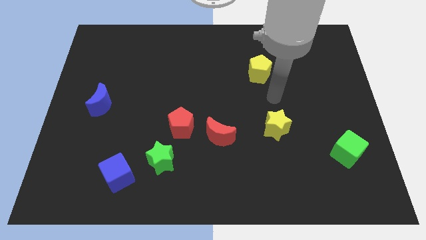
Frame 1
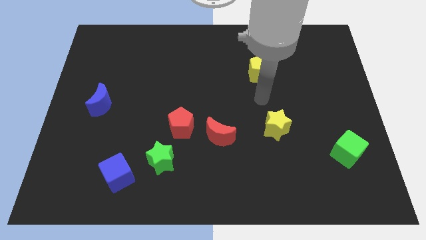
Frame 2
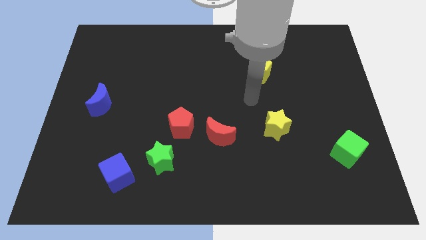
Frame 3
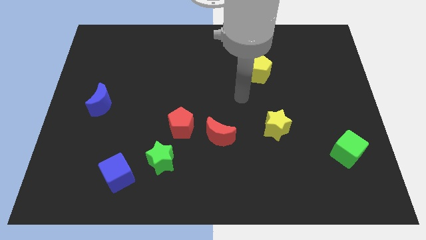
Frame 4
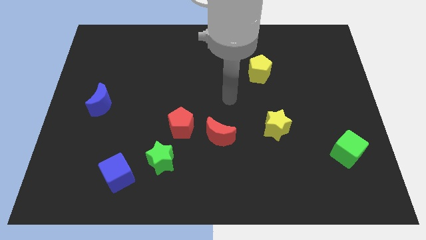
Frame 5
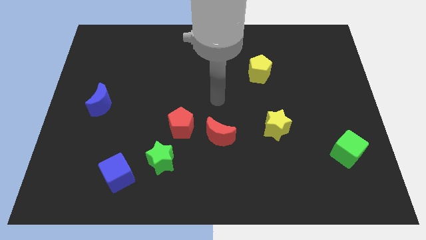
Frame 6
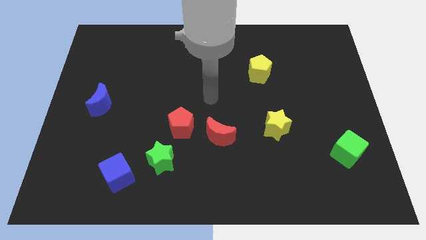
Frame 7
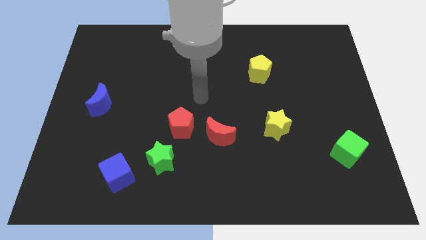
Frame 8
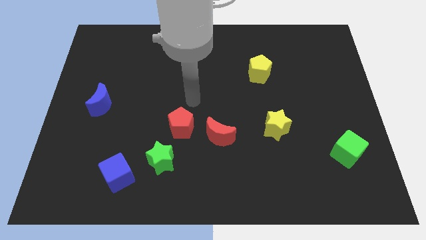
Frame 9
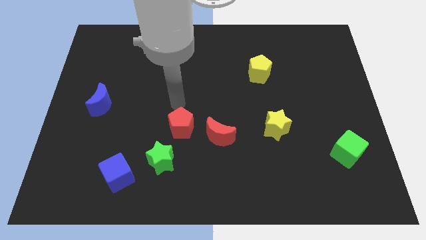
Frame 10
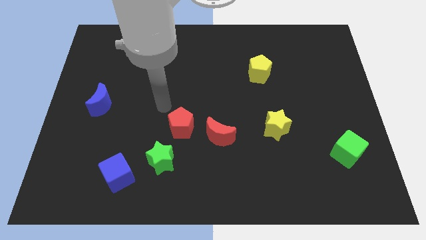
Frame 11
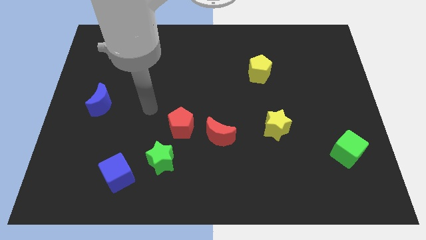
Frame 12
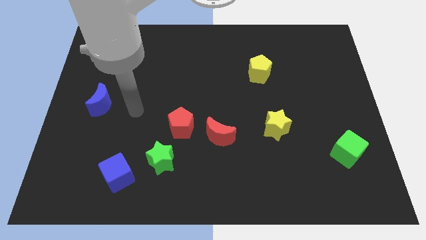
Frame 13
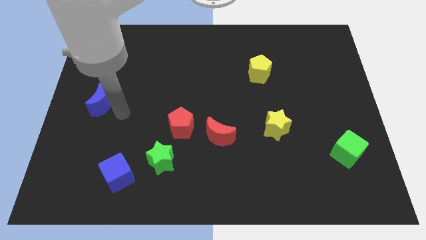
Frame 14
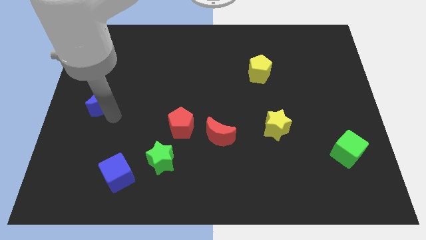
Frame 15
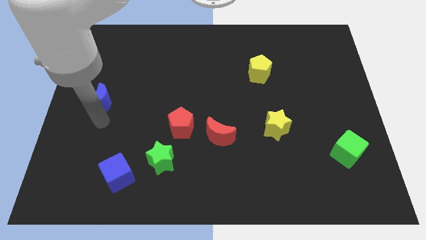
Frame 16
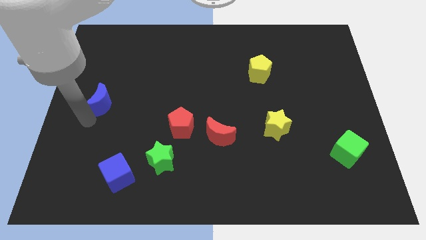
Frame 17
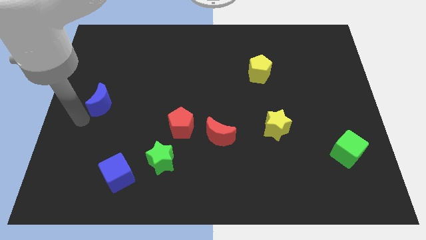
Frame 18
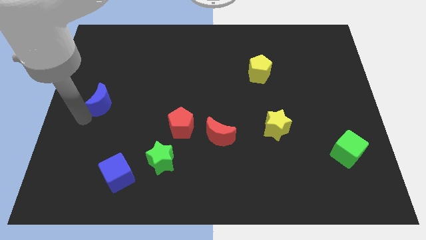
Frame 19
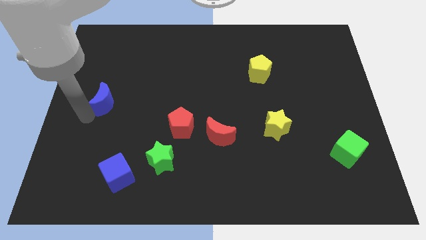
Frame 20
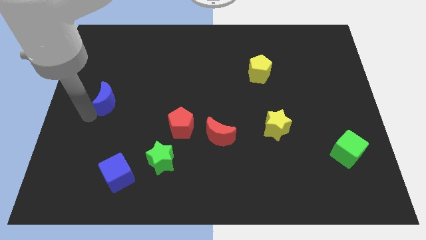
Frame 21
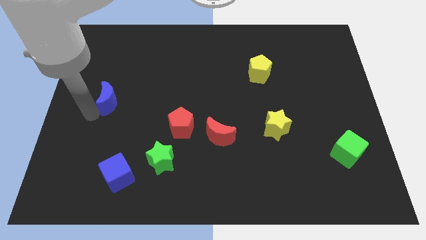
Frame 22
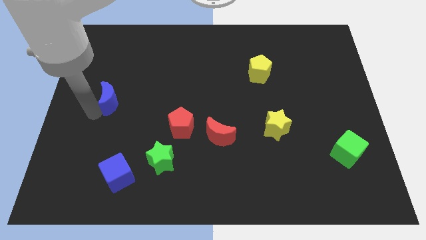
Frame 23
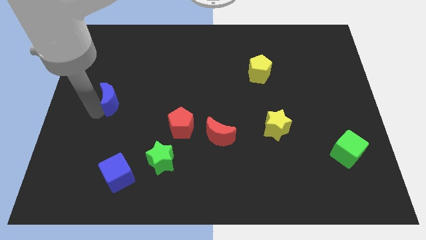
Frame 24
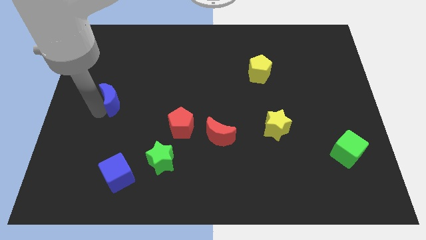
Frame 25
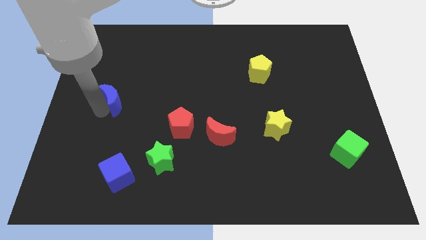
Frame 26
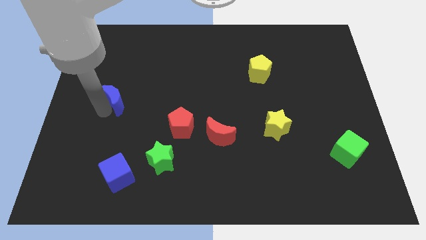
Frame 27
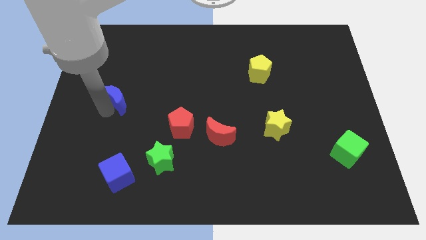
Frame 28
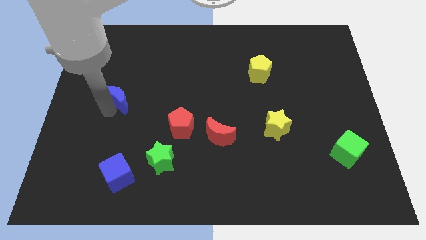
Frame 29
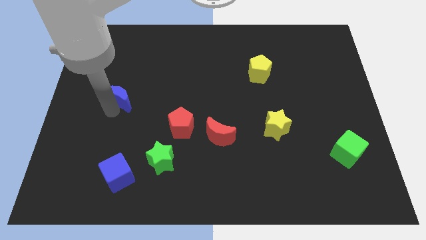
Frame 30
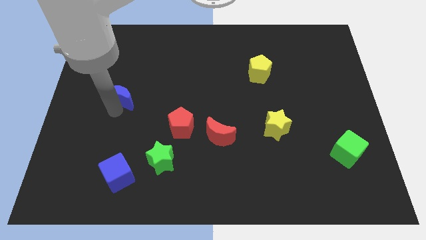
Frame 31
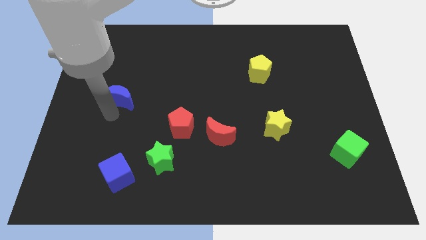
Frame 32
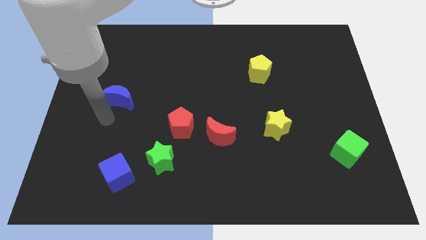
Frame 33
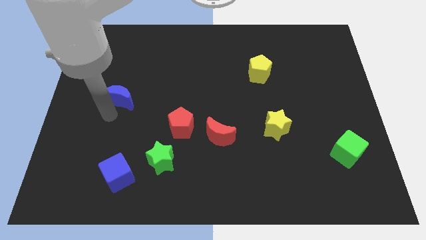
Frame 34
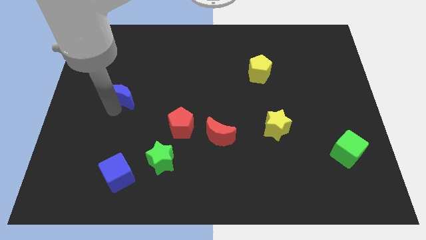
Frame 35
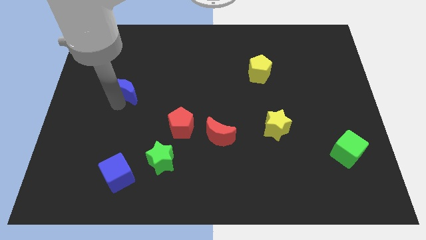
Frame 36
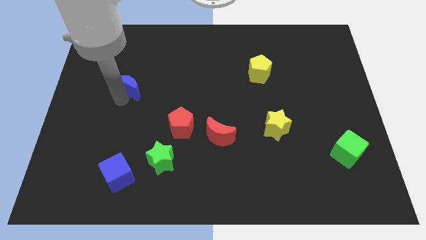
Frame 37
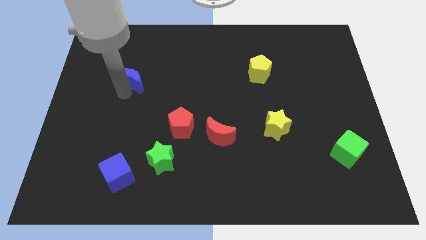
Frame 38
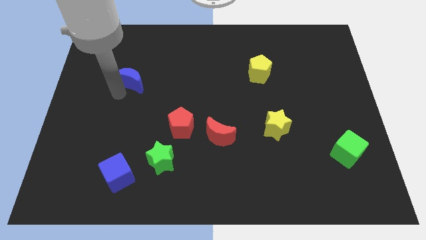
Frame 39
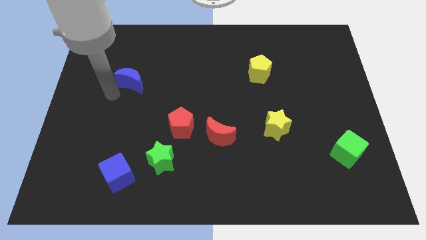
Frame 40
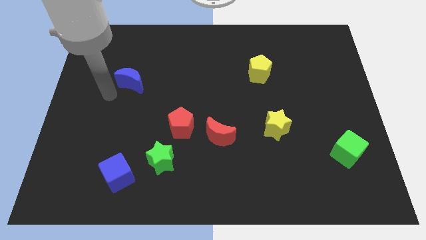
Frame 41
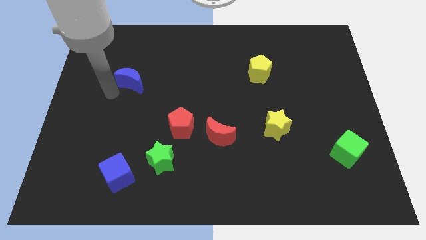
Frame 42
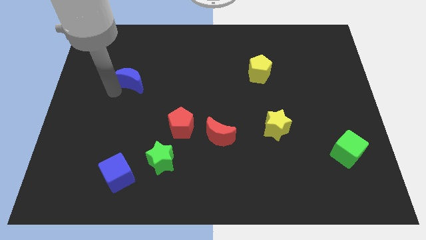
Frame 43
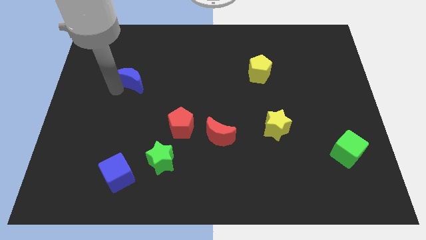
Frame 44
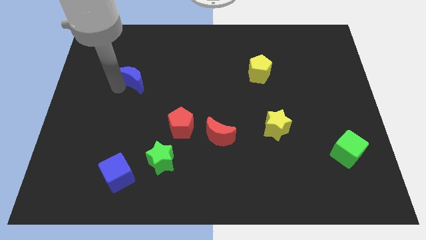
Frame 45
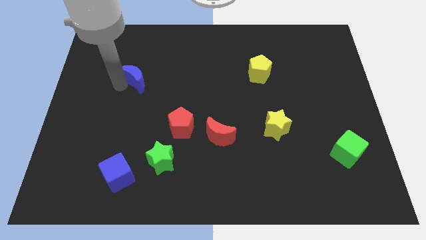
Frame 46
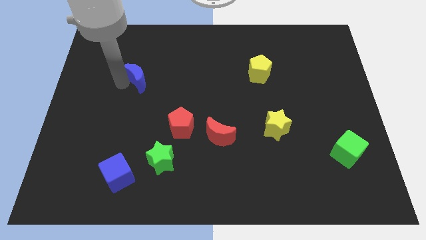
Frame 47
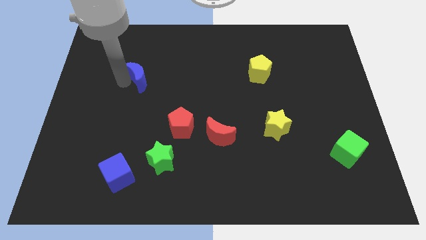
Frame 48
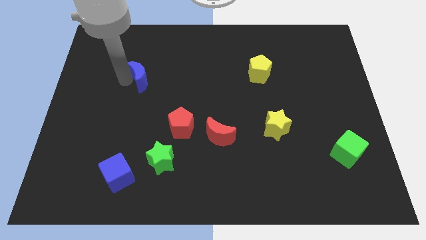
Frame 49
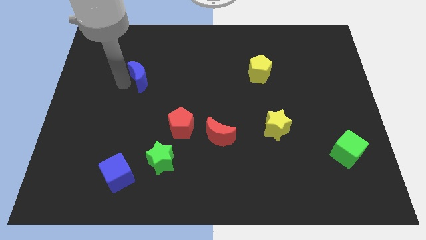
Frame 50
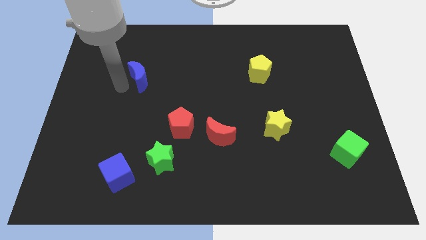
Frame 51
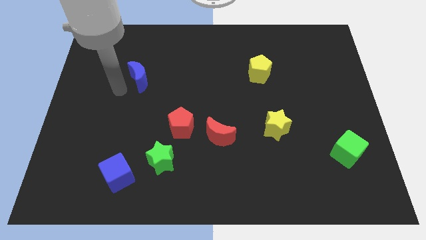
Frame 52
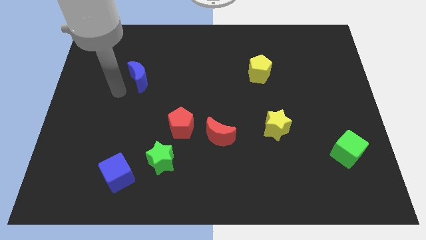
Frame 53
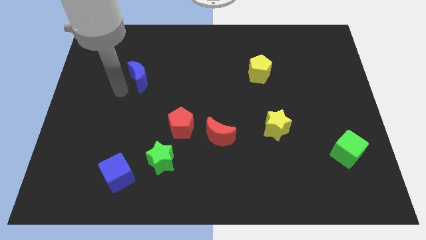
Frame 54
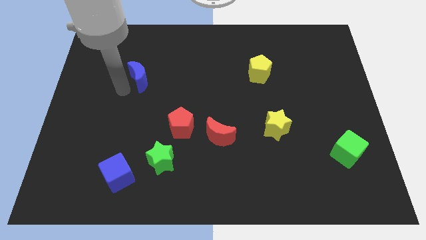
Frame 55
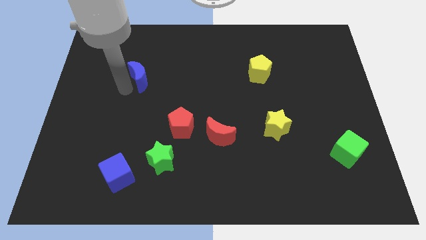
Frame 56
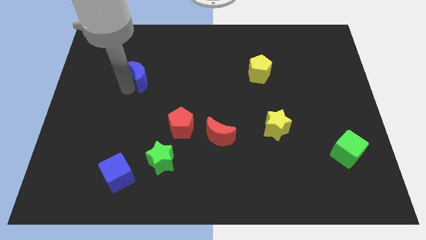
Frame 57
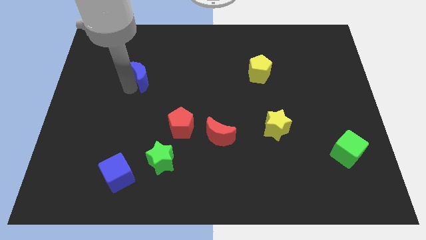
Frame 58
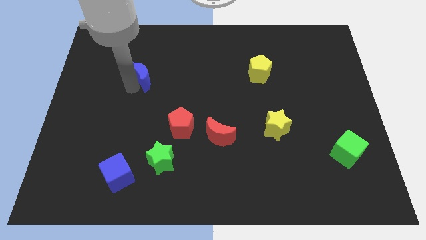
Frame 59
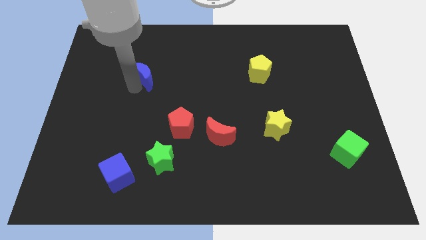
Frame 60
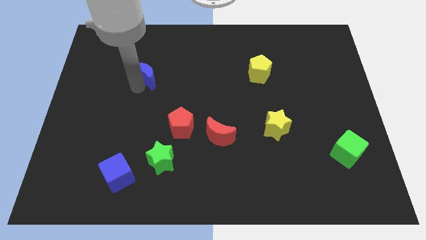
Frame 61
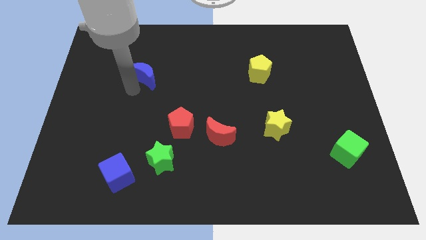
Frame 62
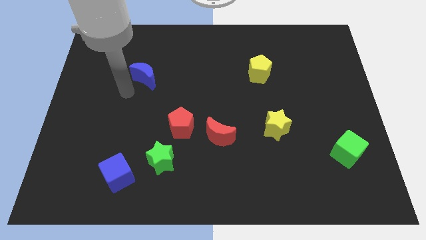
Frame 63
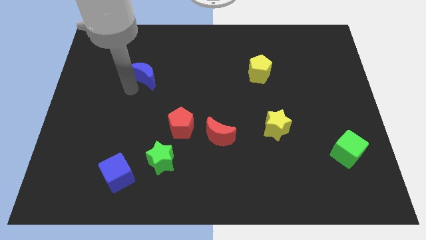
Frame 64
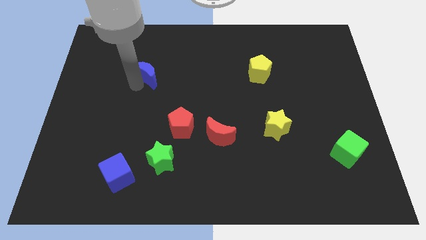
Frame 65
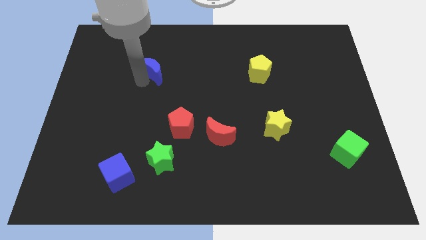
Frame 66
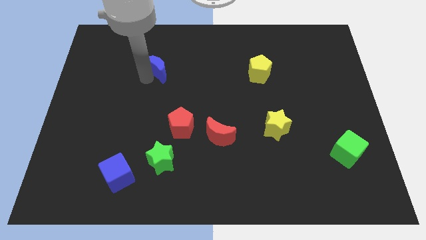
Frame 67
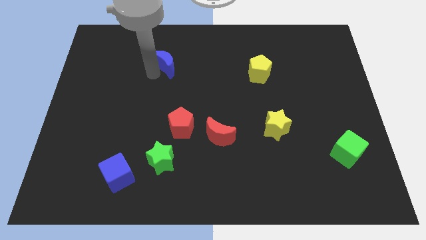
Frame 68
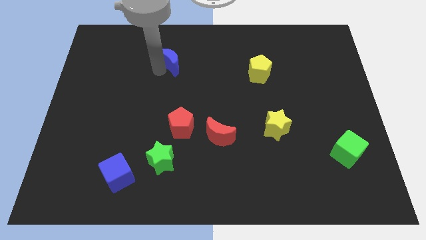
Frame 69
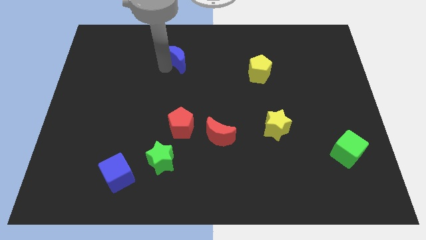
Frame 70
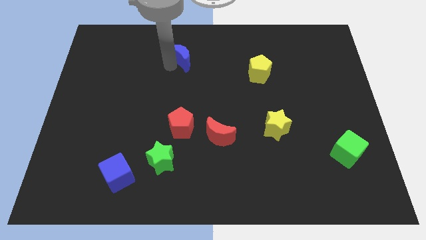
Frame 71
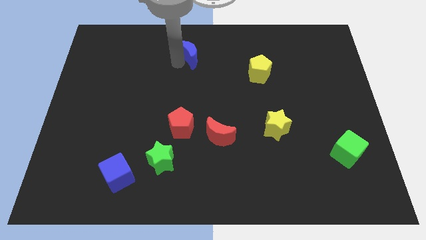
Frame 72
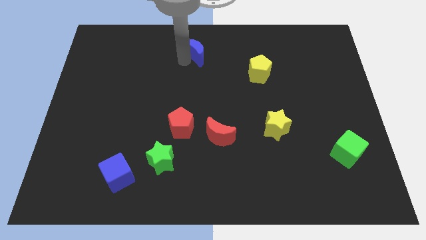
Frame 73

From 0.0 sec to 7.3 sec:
put the blue moon to the top
